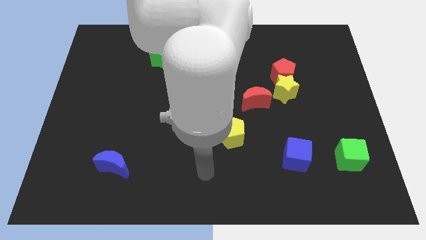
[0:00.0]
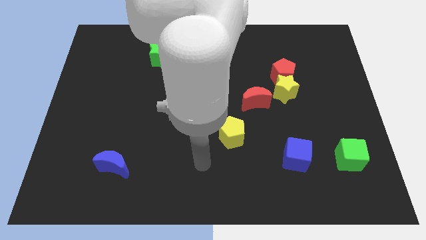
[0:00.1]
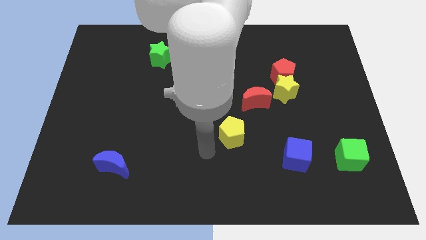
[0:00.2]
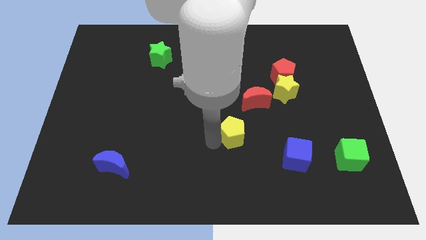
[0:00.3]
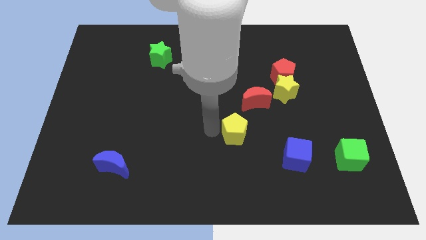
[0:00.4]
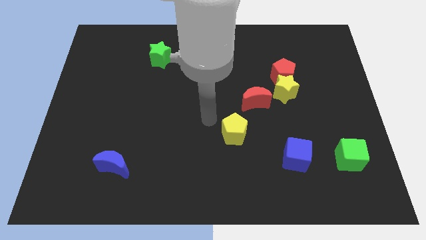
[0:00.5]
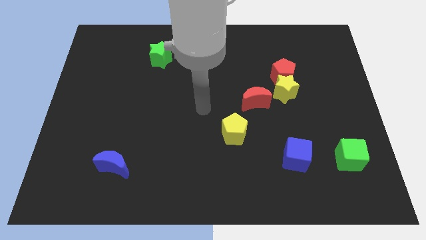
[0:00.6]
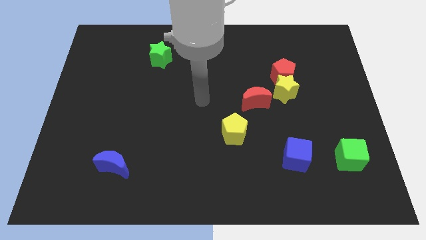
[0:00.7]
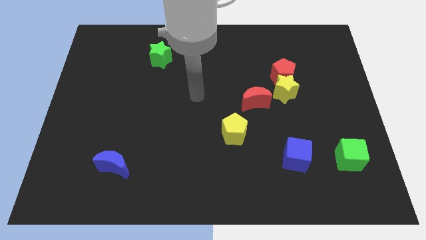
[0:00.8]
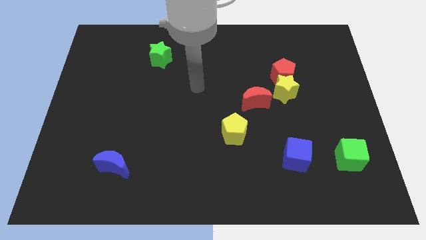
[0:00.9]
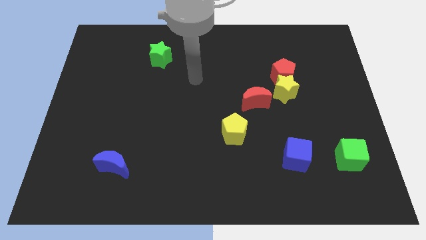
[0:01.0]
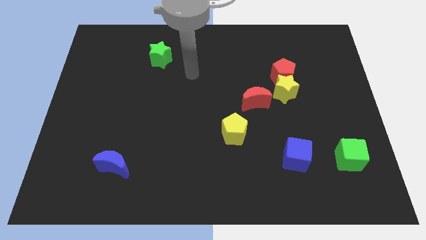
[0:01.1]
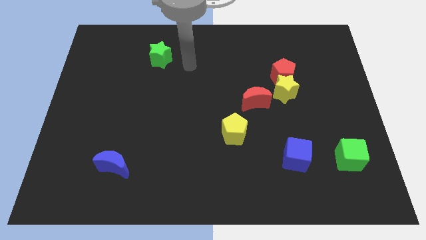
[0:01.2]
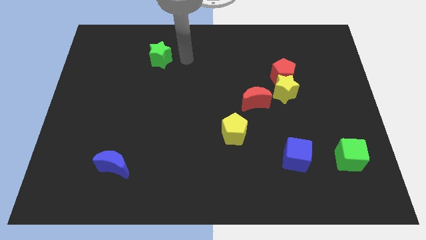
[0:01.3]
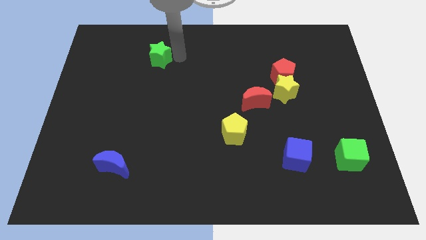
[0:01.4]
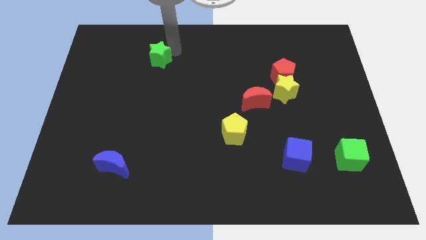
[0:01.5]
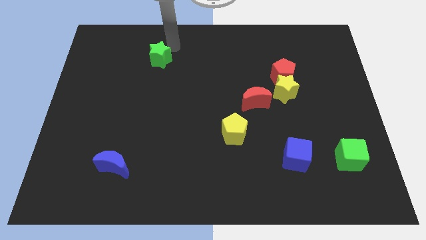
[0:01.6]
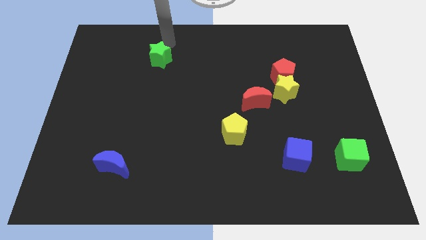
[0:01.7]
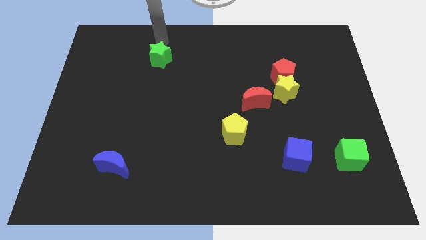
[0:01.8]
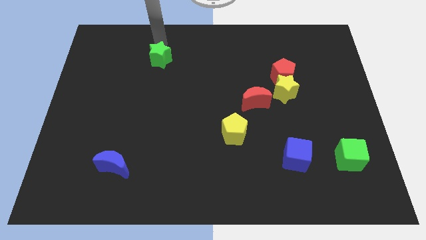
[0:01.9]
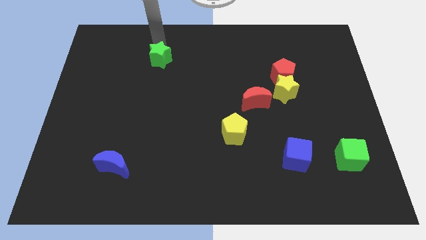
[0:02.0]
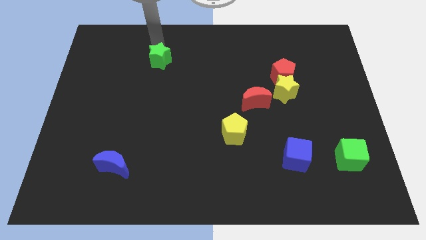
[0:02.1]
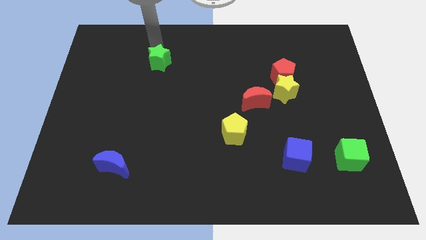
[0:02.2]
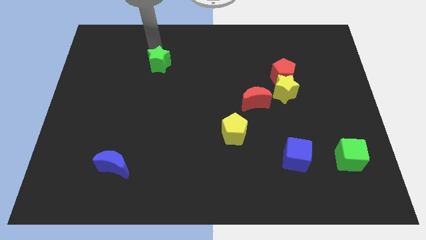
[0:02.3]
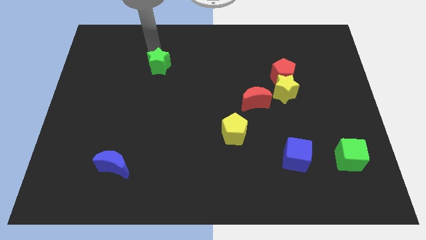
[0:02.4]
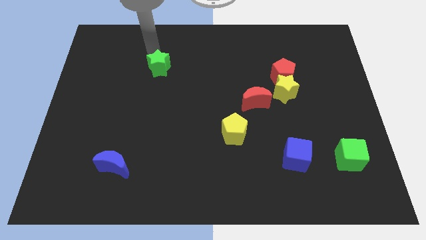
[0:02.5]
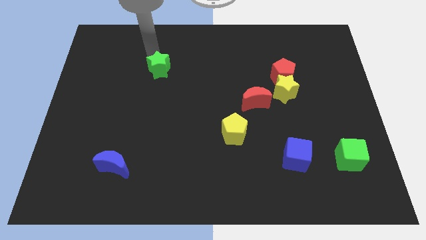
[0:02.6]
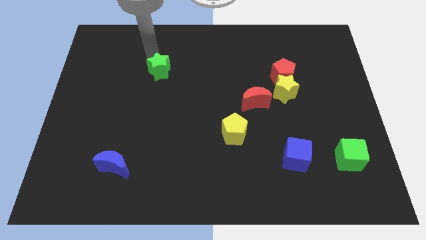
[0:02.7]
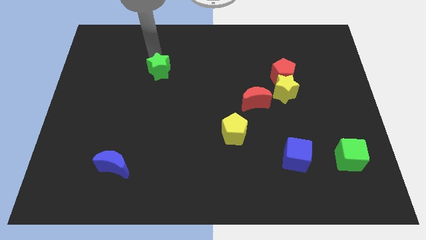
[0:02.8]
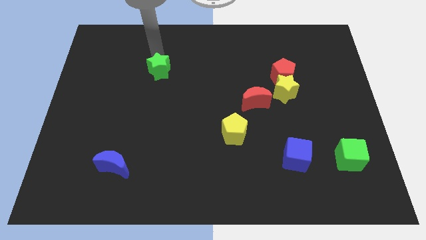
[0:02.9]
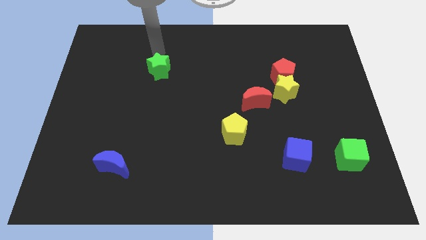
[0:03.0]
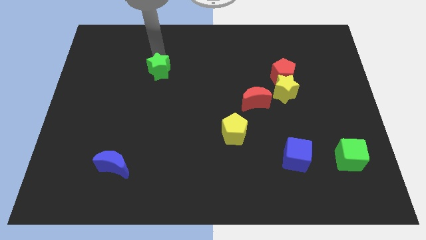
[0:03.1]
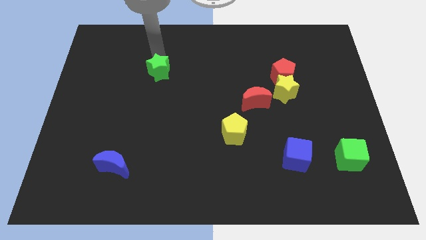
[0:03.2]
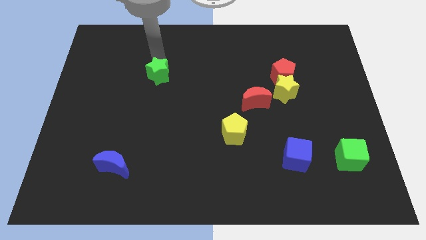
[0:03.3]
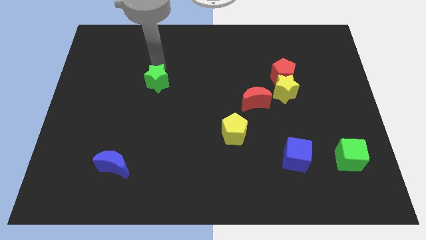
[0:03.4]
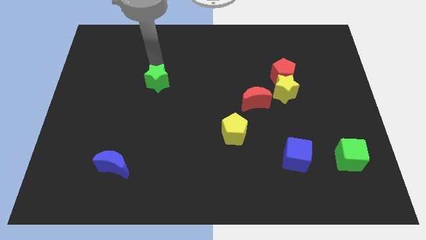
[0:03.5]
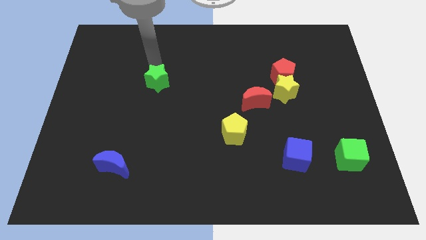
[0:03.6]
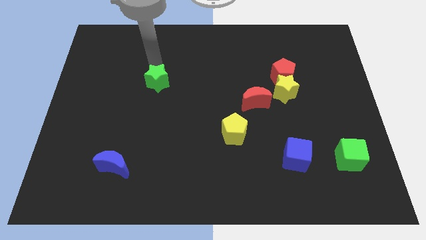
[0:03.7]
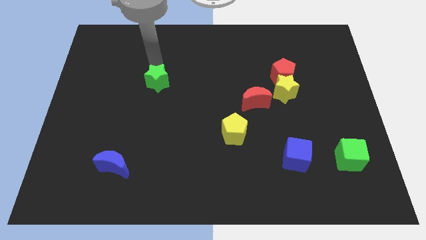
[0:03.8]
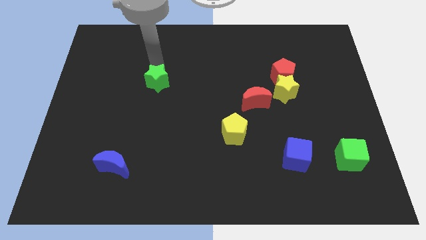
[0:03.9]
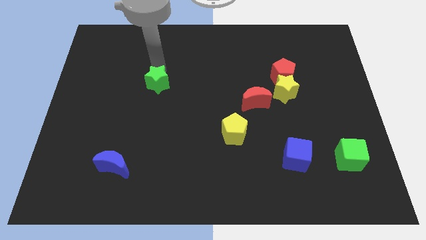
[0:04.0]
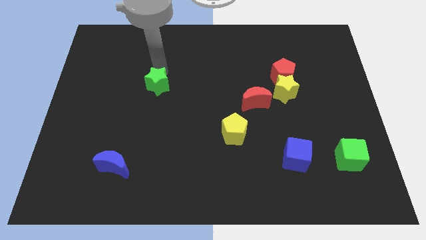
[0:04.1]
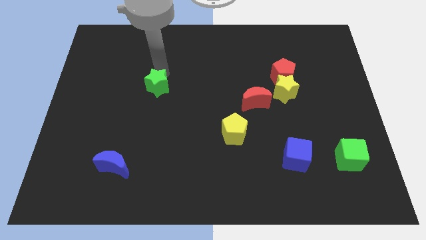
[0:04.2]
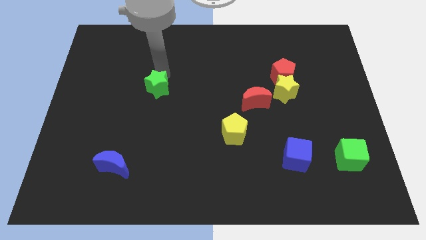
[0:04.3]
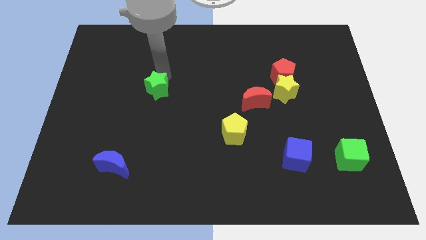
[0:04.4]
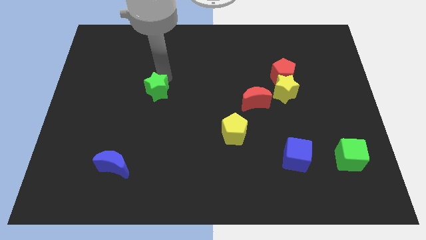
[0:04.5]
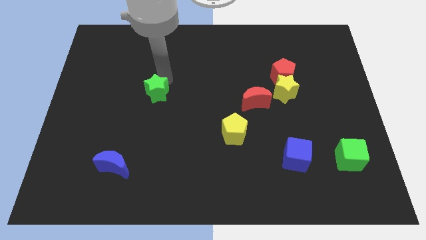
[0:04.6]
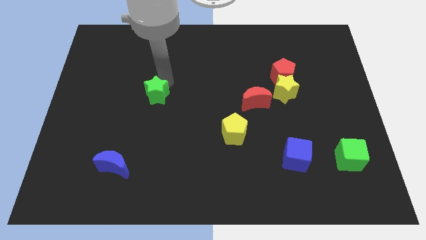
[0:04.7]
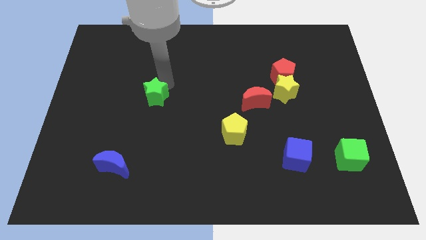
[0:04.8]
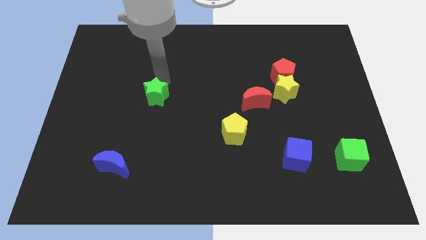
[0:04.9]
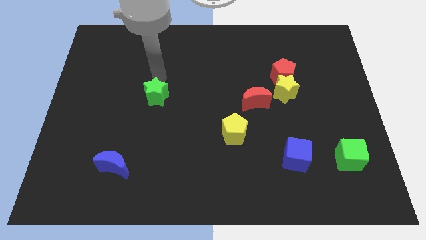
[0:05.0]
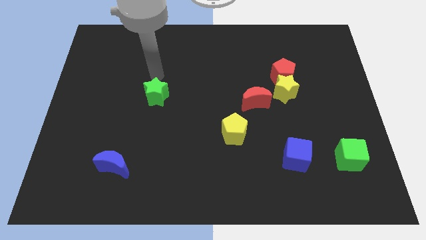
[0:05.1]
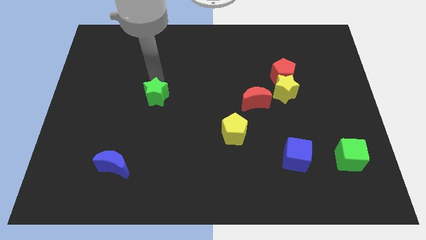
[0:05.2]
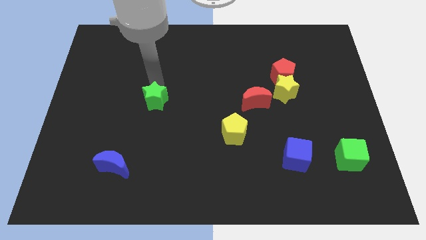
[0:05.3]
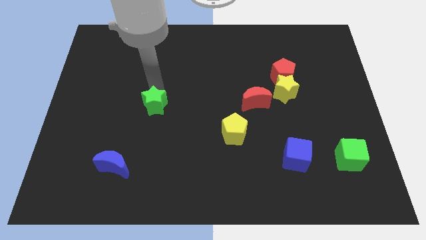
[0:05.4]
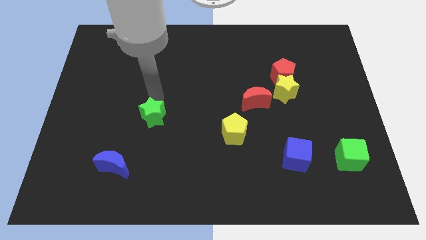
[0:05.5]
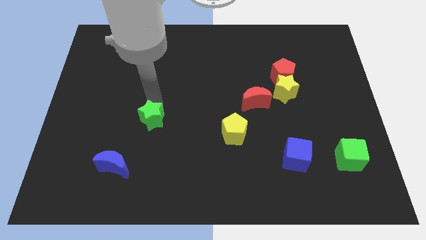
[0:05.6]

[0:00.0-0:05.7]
slide the green star down

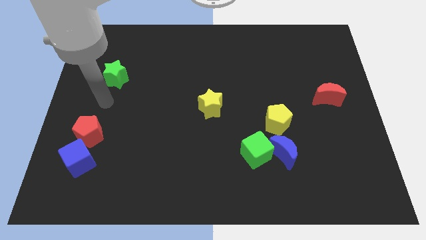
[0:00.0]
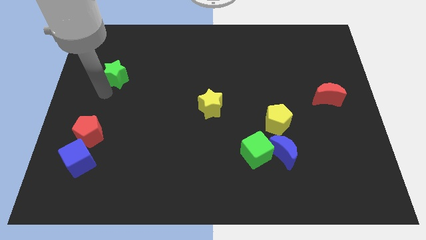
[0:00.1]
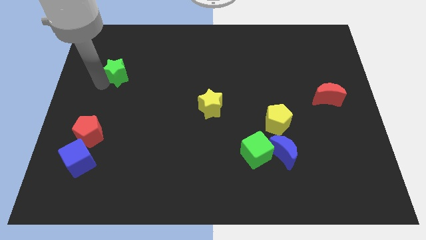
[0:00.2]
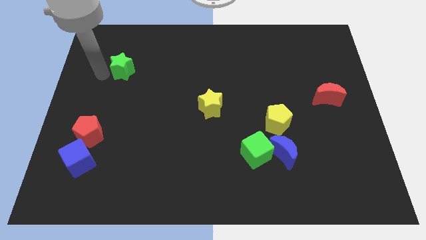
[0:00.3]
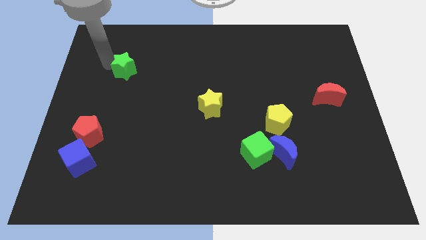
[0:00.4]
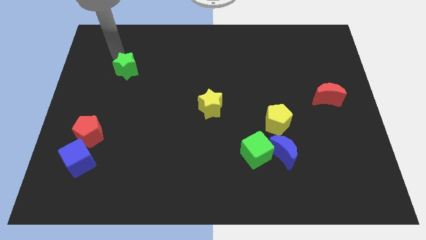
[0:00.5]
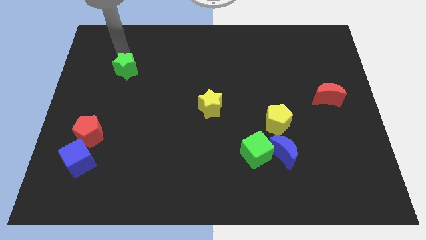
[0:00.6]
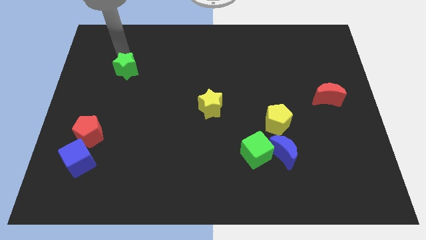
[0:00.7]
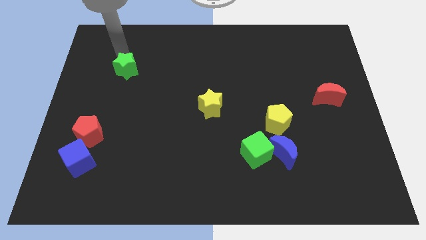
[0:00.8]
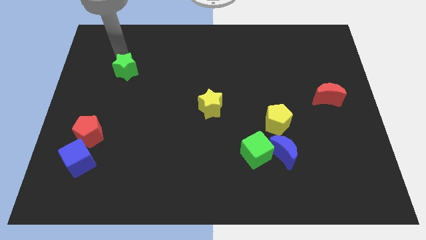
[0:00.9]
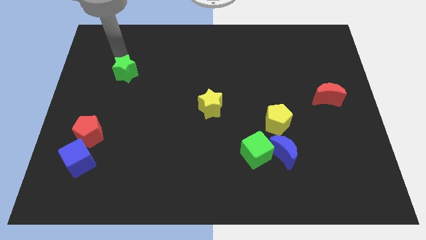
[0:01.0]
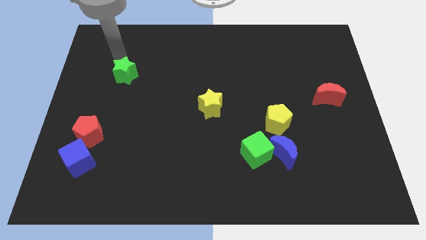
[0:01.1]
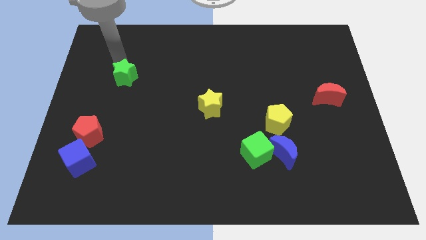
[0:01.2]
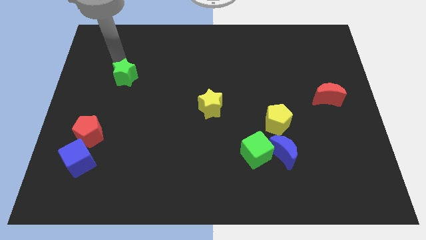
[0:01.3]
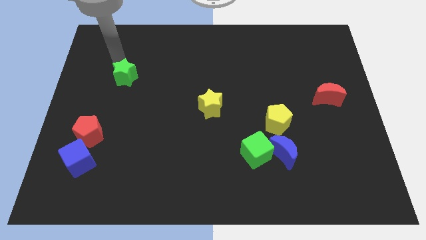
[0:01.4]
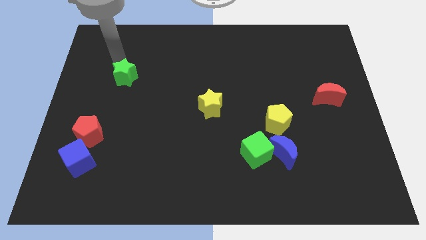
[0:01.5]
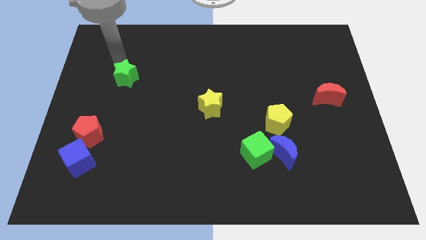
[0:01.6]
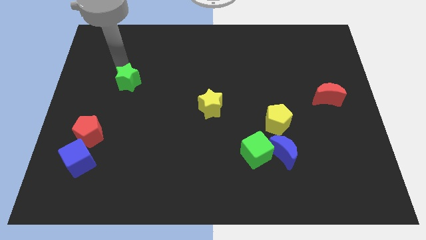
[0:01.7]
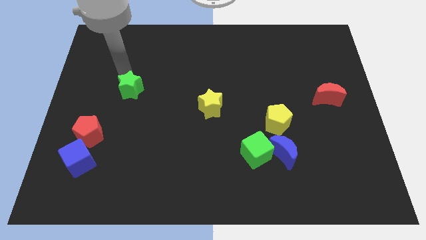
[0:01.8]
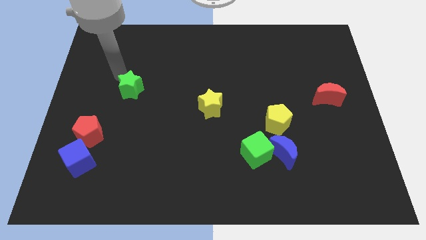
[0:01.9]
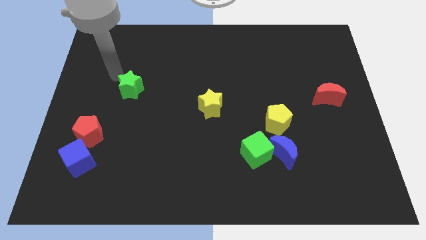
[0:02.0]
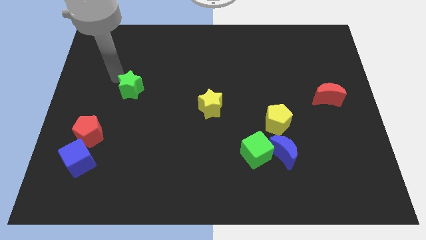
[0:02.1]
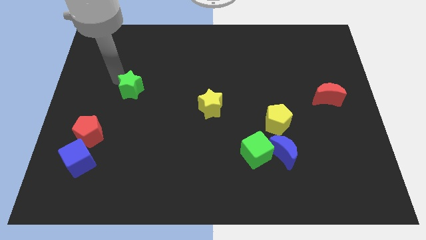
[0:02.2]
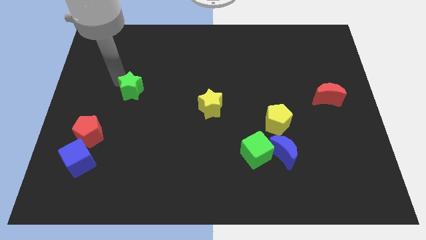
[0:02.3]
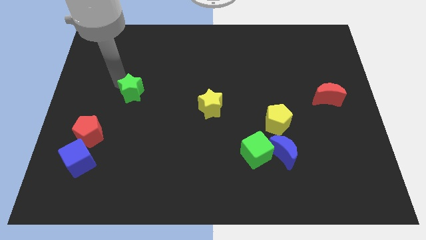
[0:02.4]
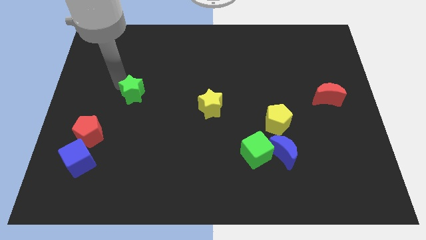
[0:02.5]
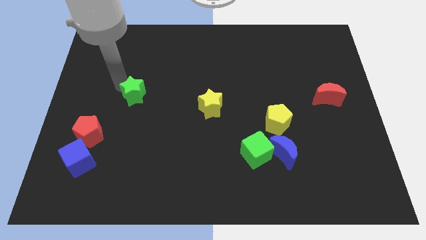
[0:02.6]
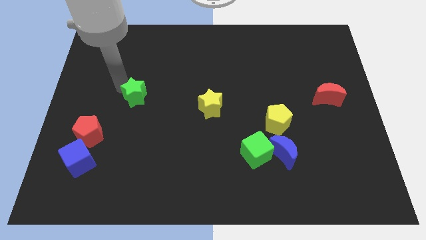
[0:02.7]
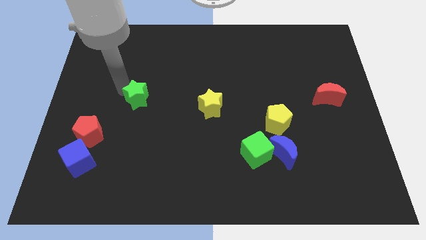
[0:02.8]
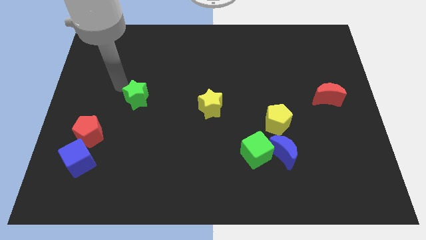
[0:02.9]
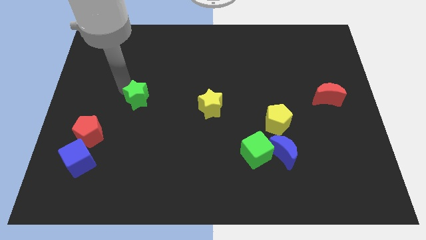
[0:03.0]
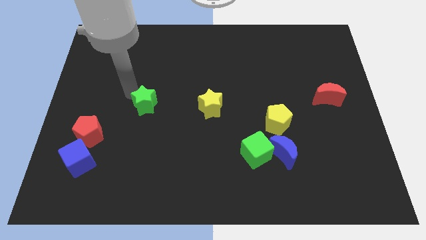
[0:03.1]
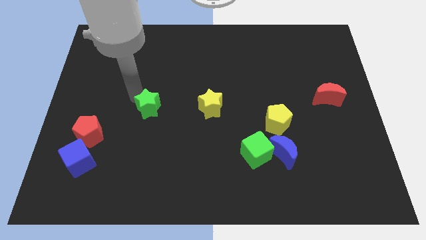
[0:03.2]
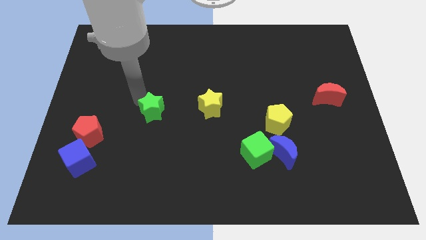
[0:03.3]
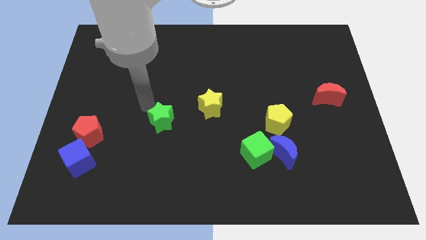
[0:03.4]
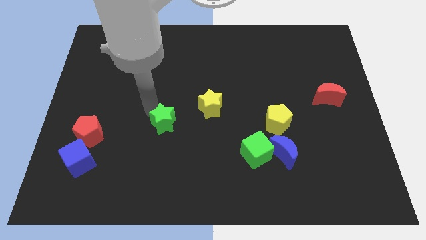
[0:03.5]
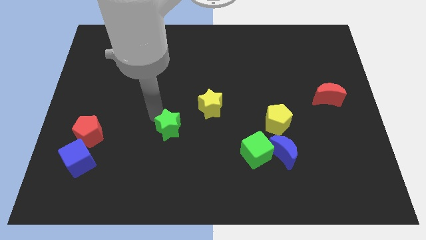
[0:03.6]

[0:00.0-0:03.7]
slide the green star diagonally downwards and right
